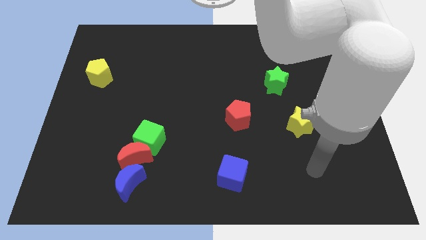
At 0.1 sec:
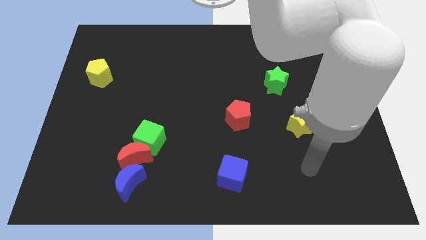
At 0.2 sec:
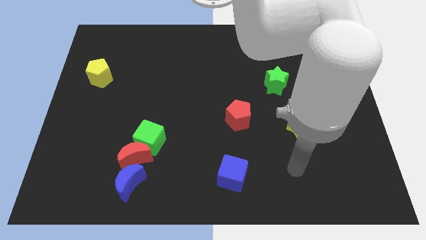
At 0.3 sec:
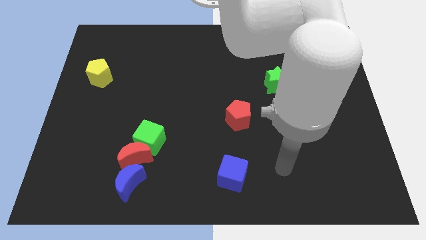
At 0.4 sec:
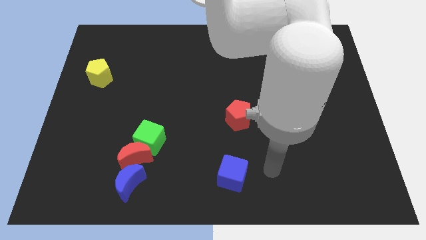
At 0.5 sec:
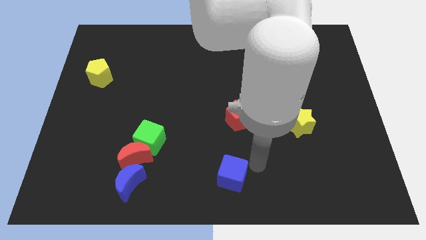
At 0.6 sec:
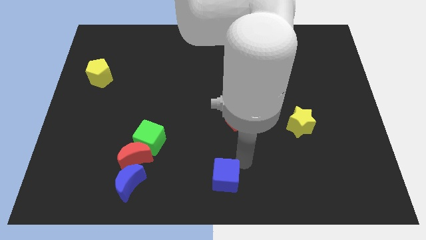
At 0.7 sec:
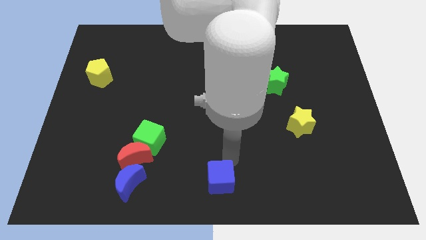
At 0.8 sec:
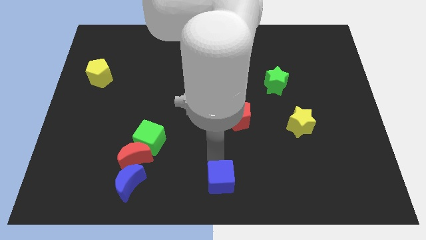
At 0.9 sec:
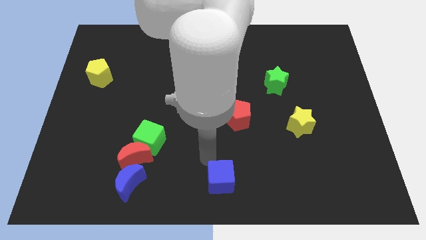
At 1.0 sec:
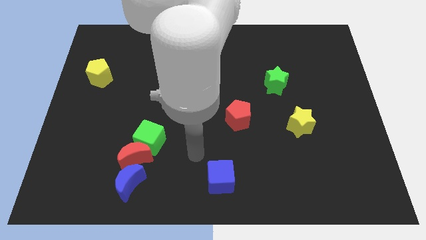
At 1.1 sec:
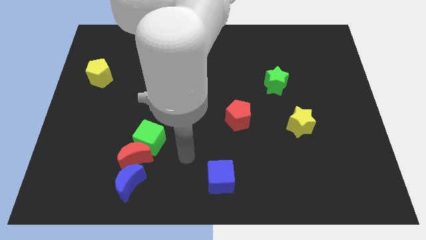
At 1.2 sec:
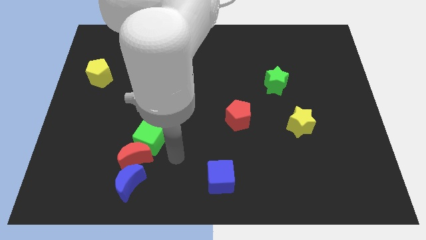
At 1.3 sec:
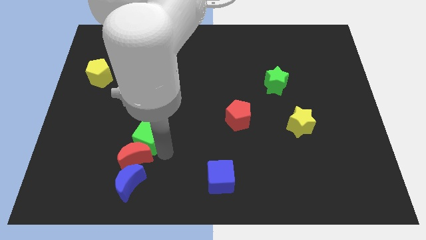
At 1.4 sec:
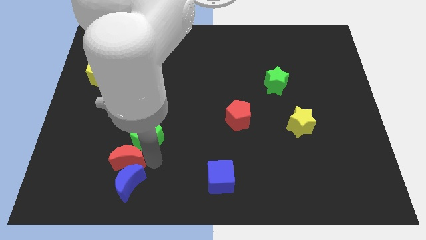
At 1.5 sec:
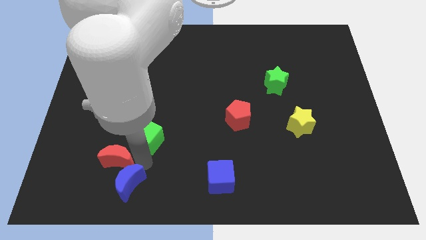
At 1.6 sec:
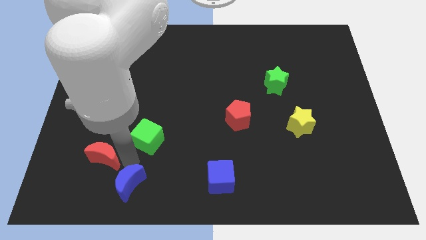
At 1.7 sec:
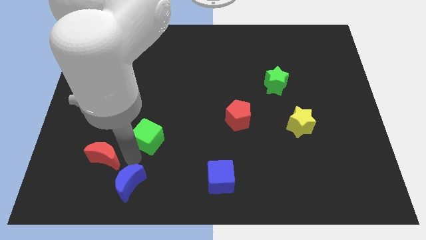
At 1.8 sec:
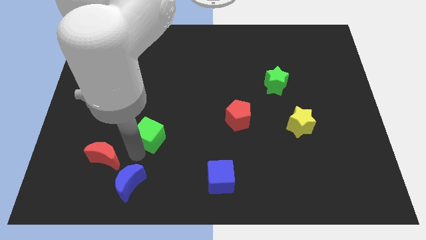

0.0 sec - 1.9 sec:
separate the green cube from the red moon

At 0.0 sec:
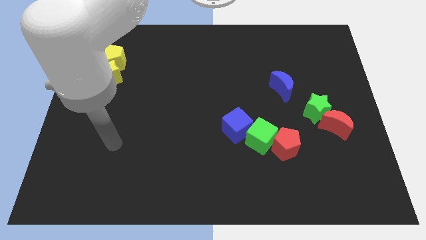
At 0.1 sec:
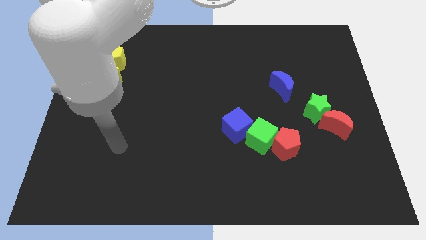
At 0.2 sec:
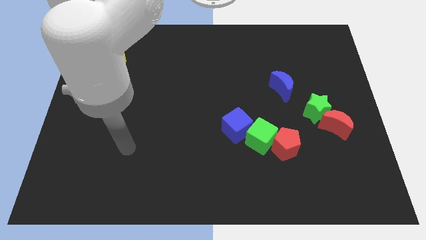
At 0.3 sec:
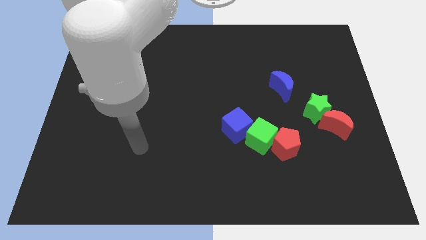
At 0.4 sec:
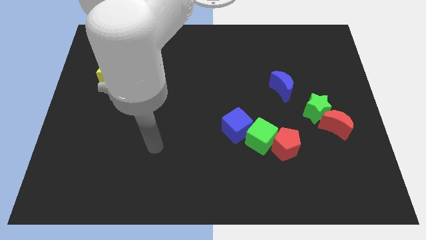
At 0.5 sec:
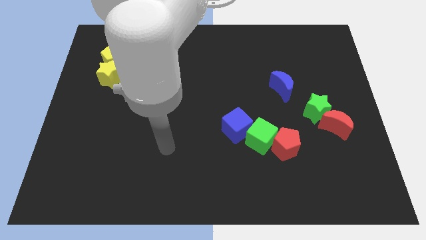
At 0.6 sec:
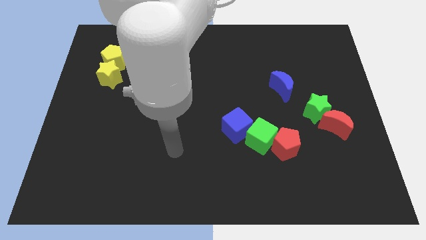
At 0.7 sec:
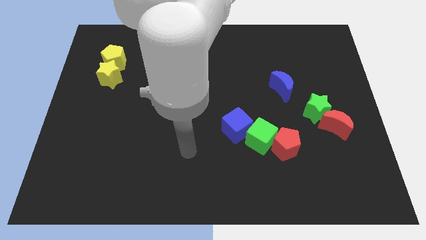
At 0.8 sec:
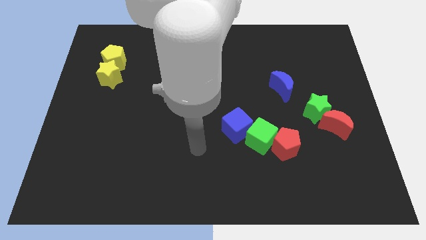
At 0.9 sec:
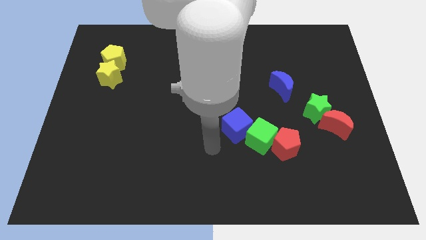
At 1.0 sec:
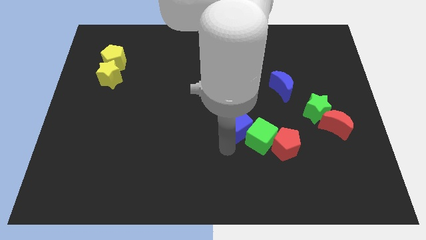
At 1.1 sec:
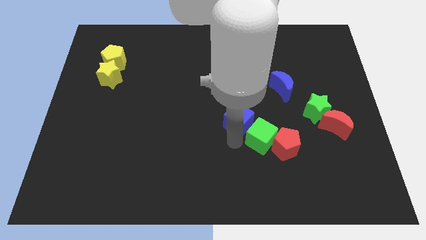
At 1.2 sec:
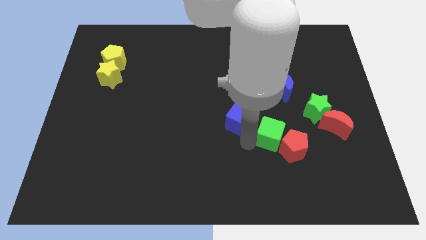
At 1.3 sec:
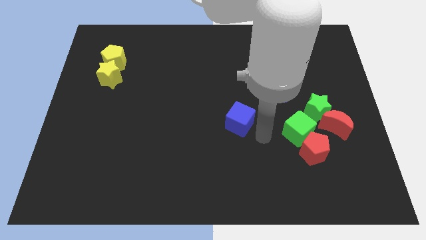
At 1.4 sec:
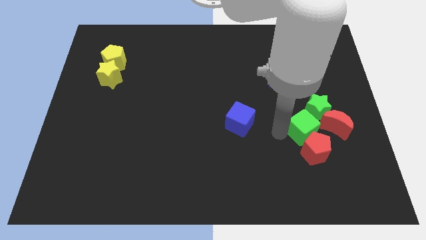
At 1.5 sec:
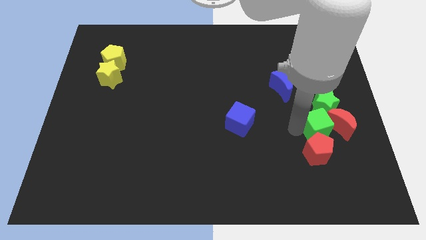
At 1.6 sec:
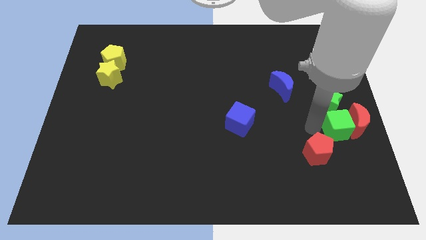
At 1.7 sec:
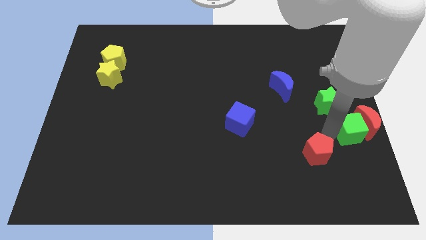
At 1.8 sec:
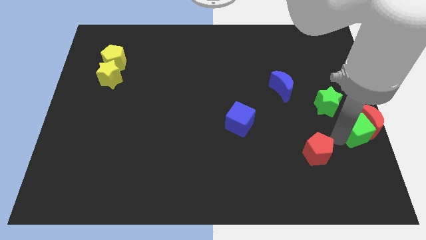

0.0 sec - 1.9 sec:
move the red pentagon away from the green cube

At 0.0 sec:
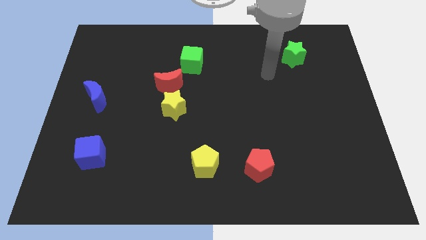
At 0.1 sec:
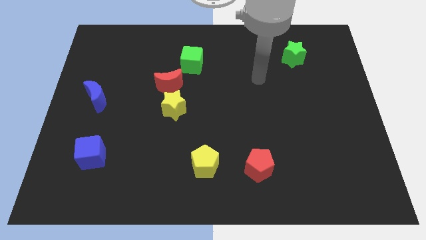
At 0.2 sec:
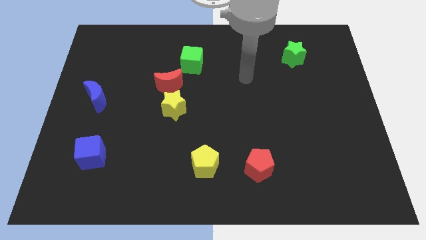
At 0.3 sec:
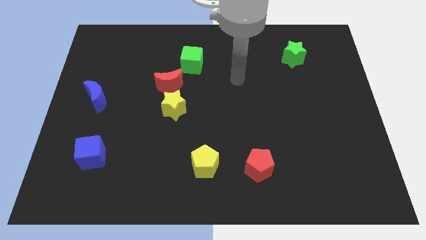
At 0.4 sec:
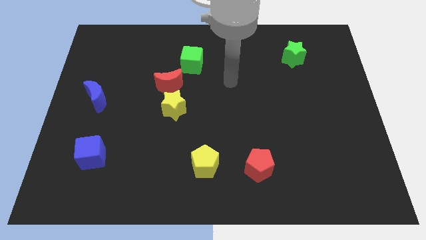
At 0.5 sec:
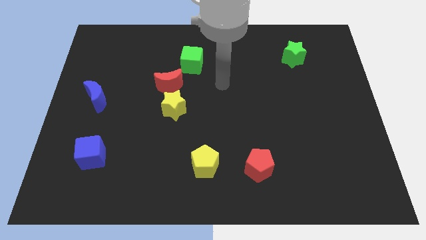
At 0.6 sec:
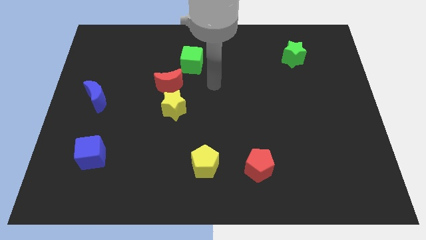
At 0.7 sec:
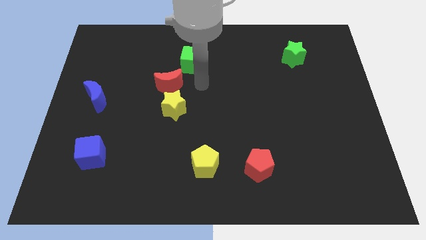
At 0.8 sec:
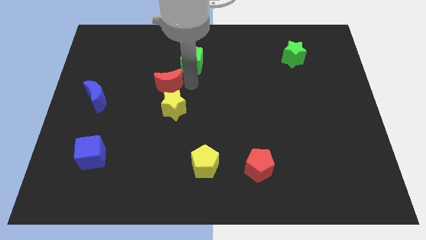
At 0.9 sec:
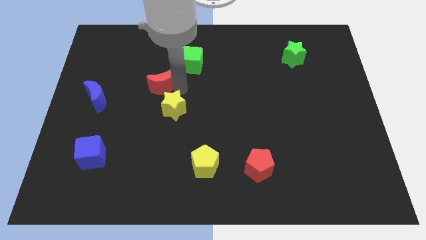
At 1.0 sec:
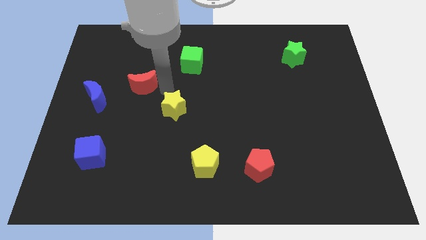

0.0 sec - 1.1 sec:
separate the yellow star from the red moon

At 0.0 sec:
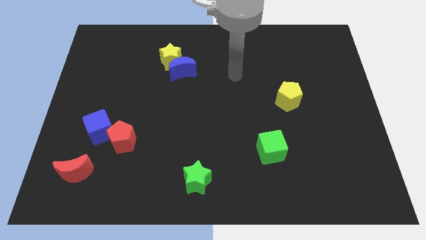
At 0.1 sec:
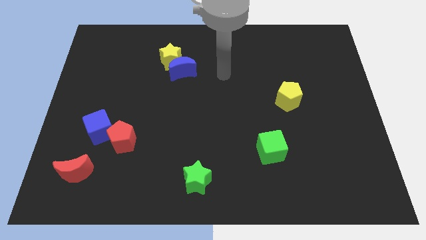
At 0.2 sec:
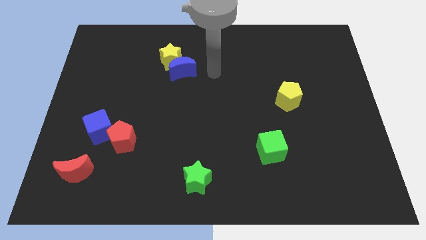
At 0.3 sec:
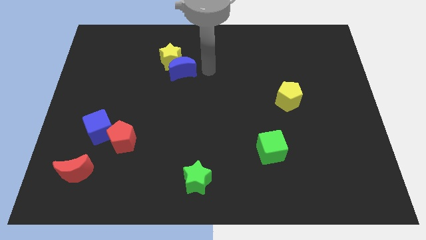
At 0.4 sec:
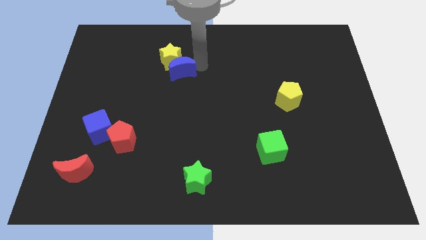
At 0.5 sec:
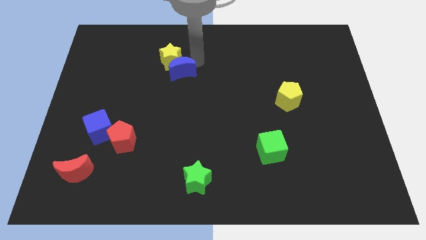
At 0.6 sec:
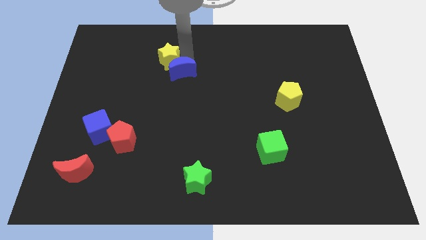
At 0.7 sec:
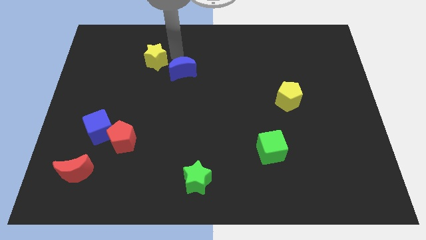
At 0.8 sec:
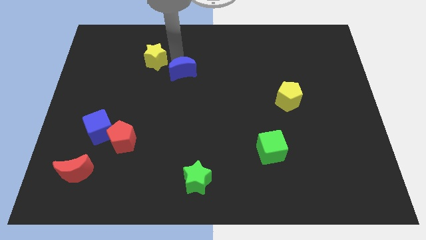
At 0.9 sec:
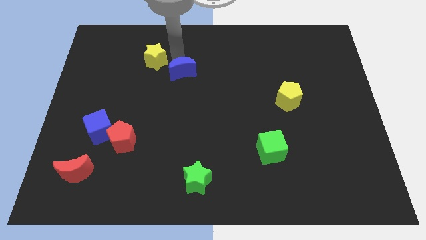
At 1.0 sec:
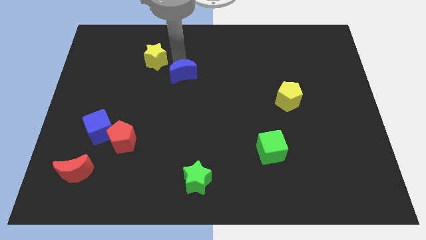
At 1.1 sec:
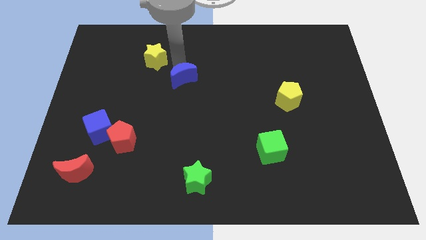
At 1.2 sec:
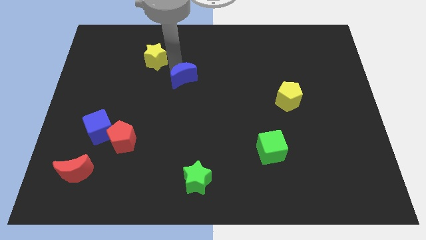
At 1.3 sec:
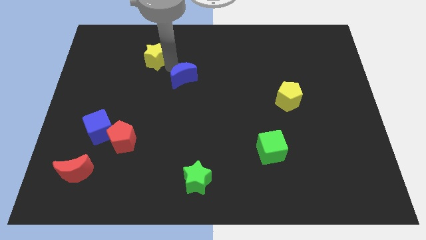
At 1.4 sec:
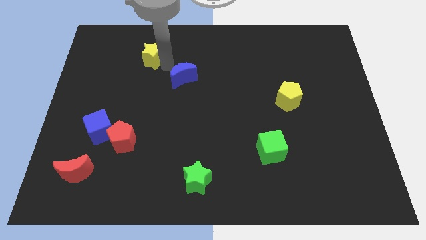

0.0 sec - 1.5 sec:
separate the blue moon from the yellow star

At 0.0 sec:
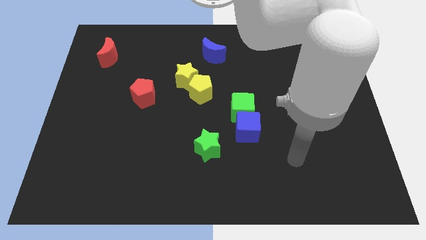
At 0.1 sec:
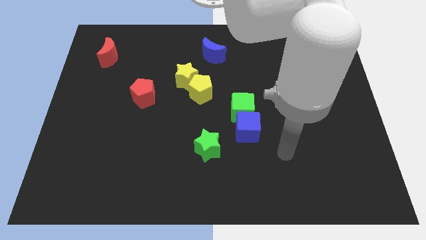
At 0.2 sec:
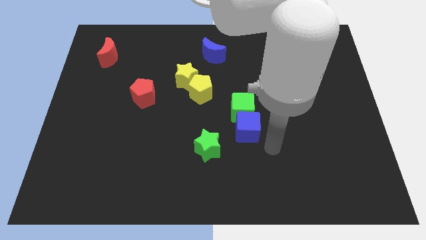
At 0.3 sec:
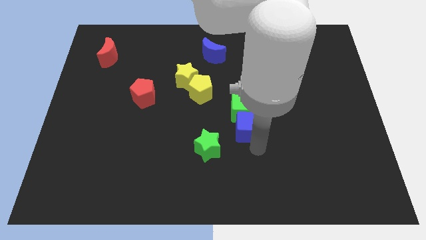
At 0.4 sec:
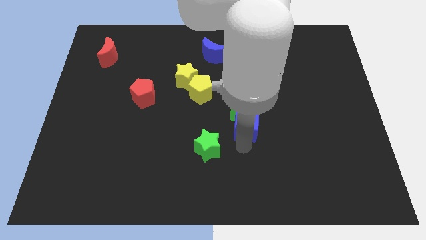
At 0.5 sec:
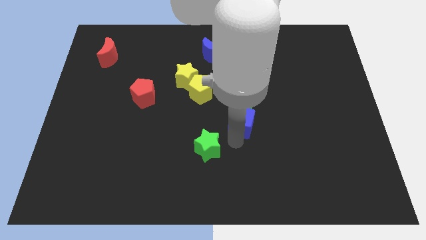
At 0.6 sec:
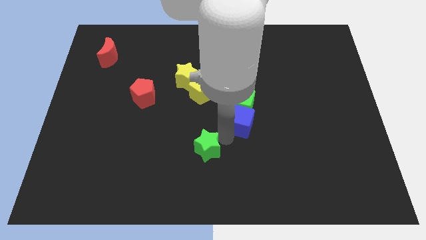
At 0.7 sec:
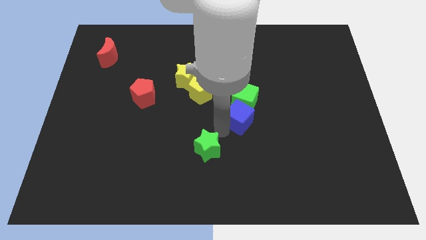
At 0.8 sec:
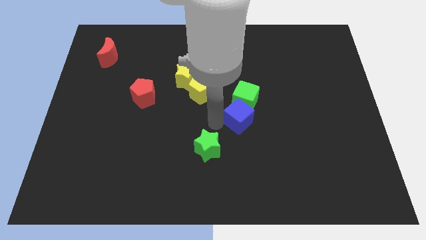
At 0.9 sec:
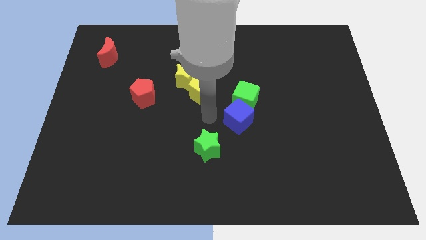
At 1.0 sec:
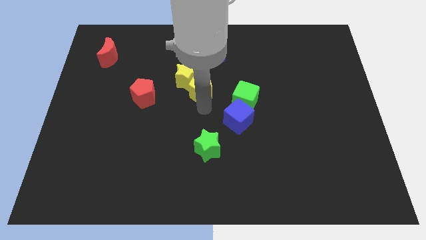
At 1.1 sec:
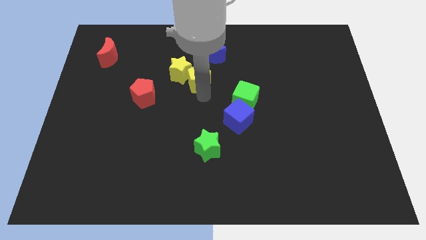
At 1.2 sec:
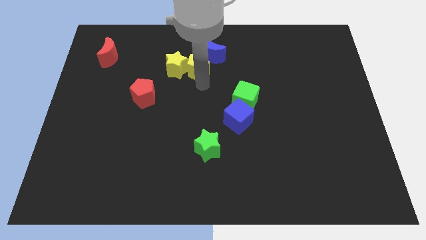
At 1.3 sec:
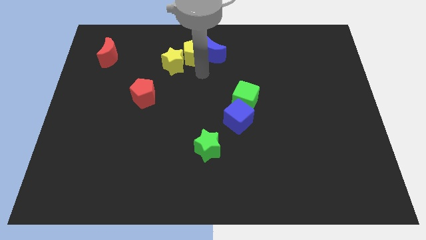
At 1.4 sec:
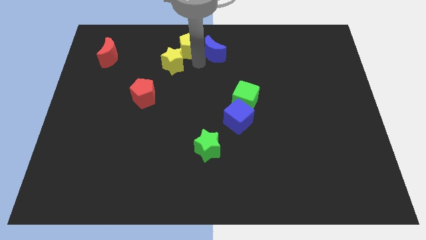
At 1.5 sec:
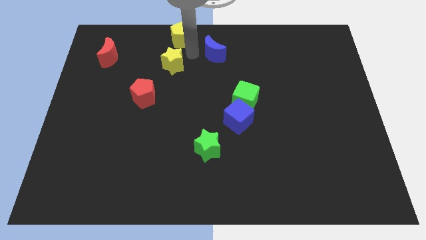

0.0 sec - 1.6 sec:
move the yellow star away from the yellow pentagon

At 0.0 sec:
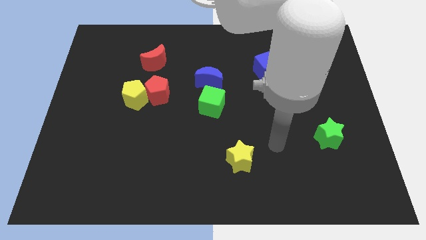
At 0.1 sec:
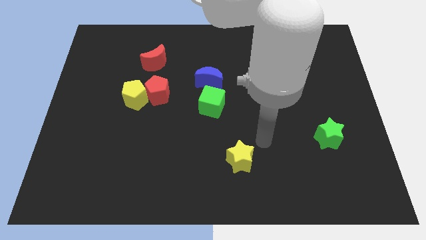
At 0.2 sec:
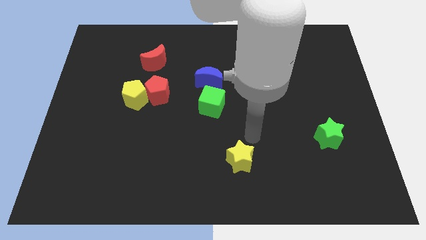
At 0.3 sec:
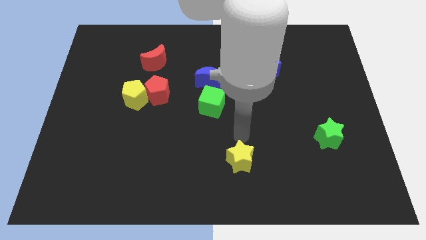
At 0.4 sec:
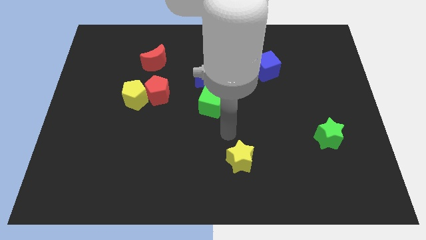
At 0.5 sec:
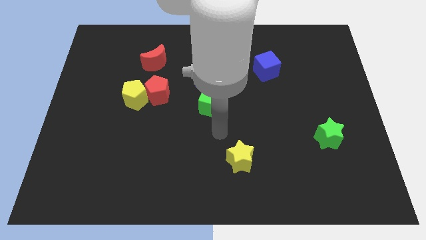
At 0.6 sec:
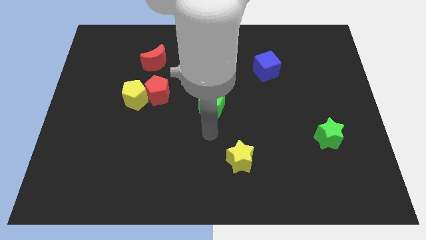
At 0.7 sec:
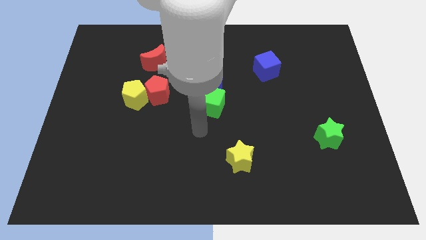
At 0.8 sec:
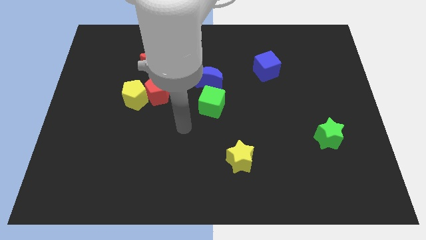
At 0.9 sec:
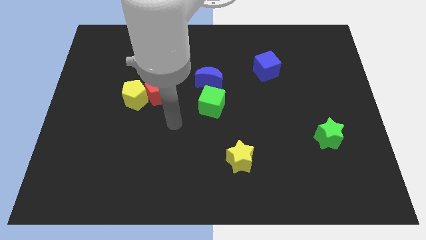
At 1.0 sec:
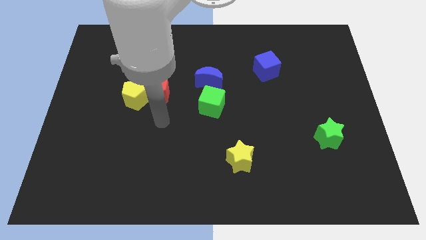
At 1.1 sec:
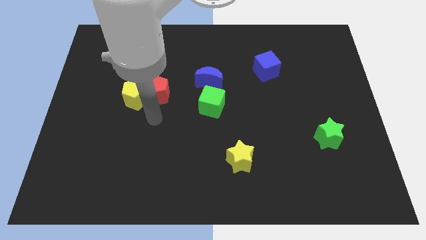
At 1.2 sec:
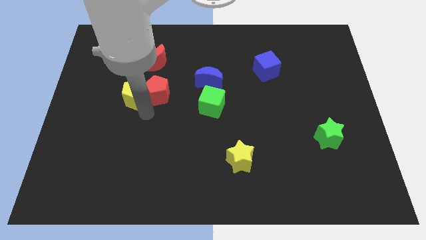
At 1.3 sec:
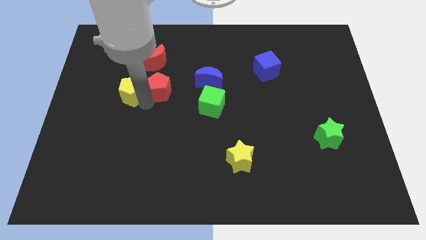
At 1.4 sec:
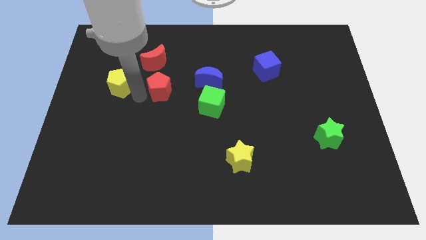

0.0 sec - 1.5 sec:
separate the red pentagon from the yellow pentagon
